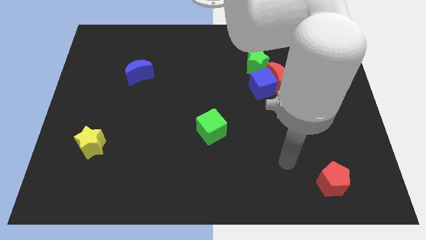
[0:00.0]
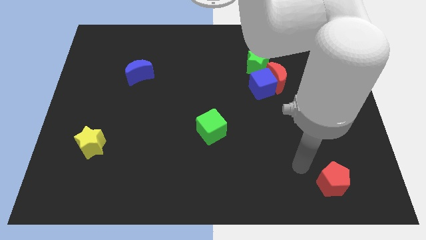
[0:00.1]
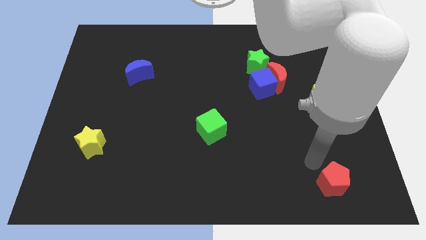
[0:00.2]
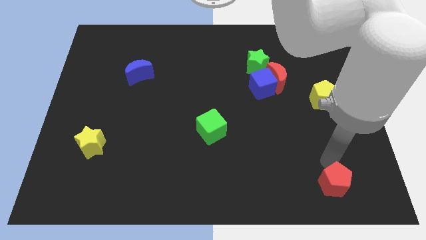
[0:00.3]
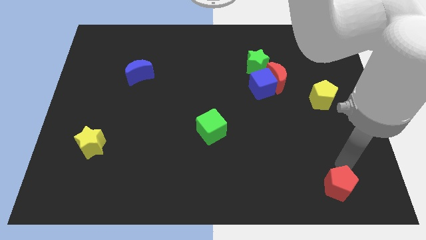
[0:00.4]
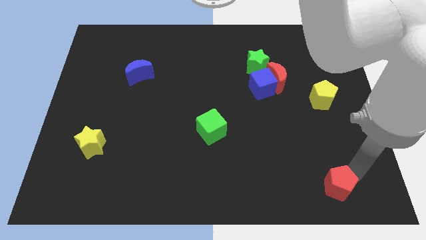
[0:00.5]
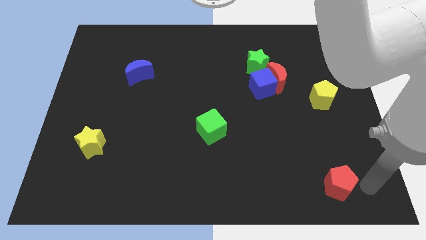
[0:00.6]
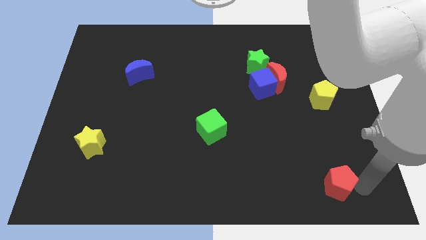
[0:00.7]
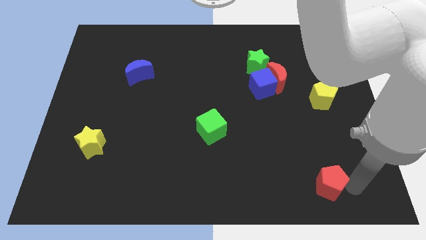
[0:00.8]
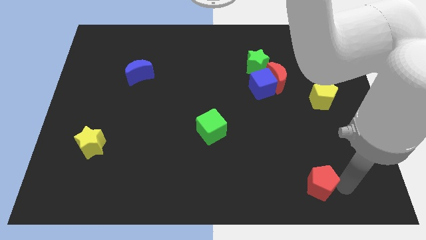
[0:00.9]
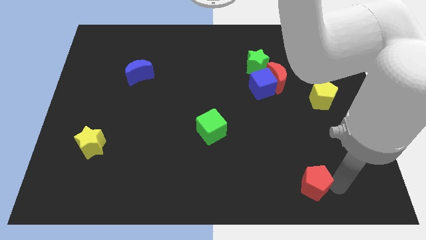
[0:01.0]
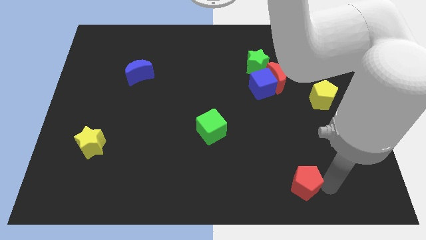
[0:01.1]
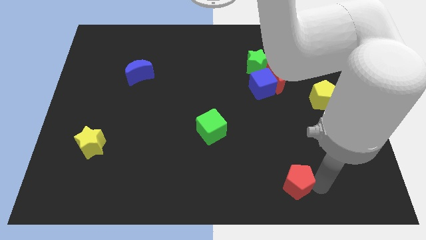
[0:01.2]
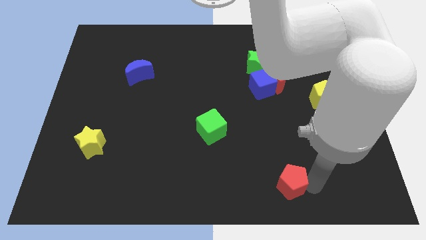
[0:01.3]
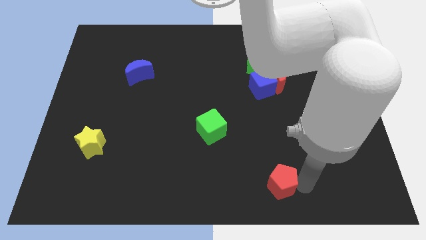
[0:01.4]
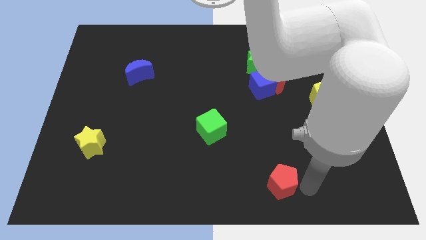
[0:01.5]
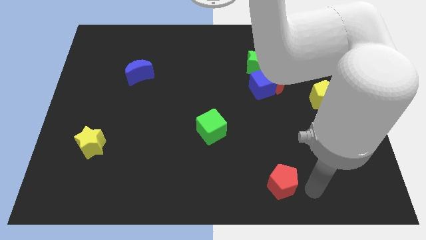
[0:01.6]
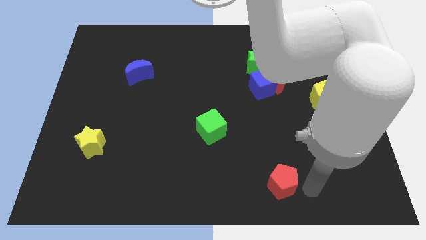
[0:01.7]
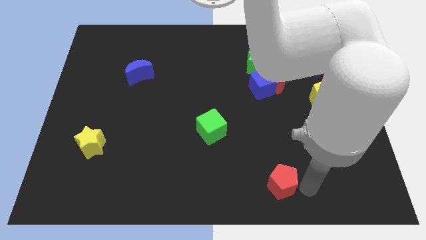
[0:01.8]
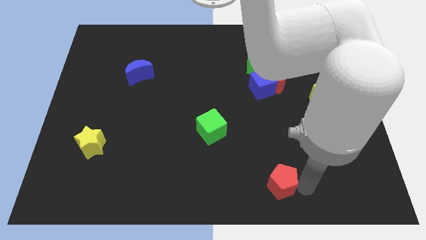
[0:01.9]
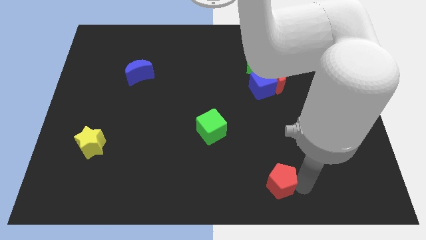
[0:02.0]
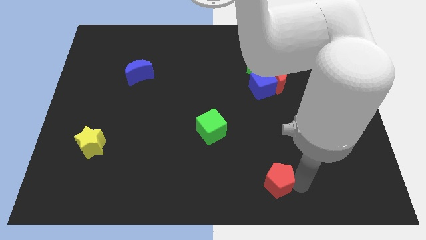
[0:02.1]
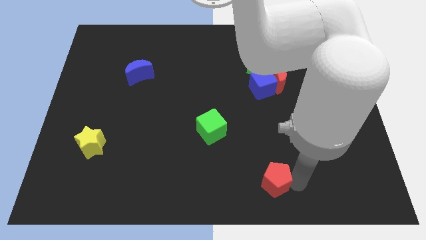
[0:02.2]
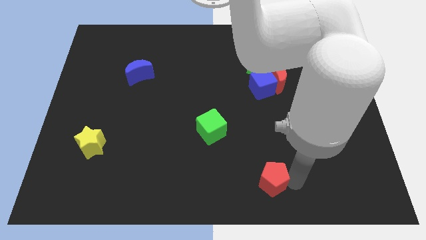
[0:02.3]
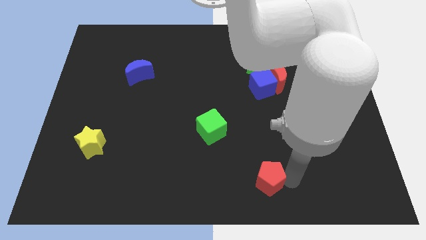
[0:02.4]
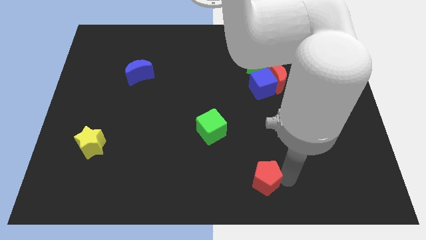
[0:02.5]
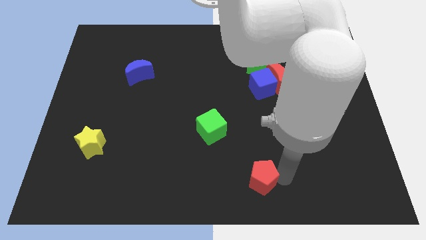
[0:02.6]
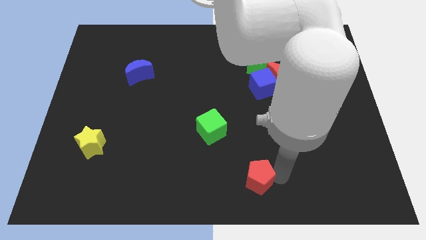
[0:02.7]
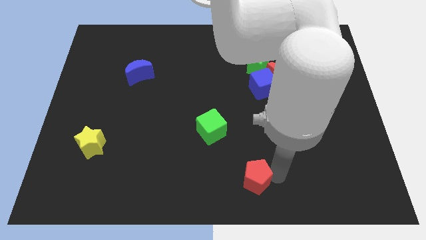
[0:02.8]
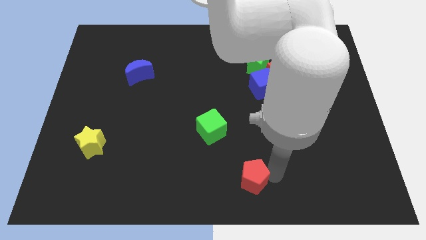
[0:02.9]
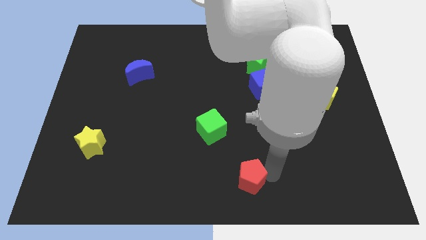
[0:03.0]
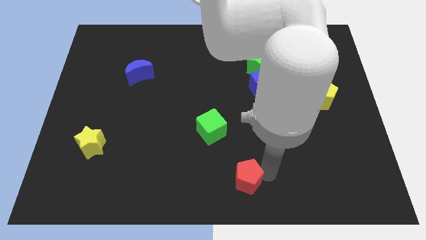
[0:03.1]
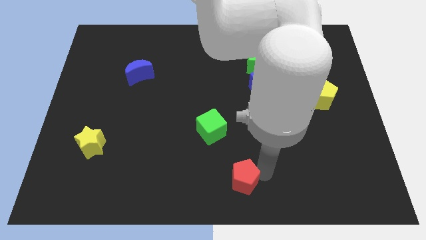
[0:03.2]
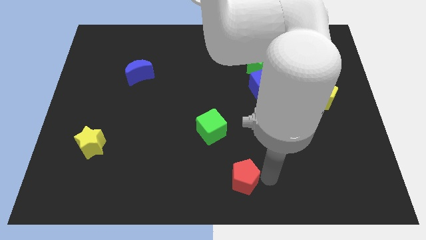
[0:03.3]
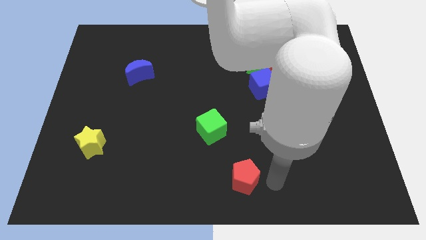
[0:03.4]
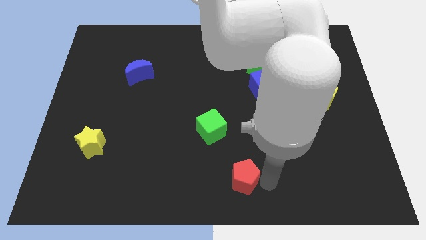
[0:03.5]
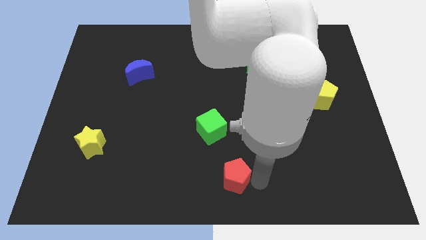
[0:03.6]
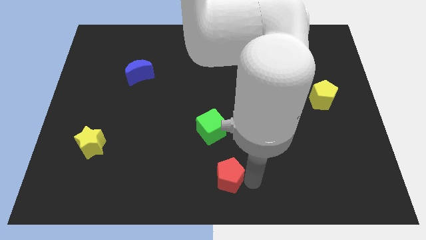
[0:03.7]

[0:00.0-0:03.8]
push the red pentagon to the left

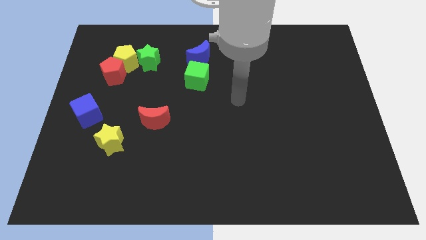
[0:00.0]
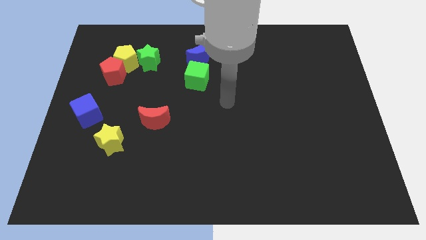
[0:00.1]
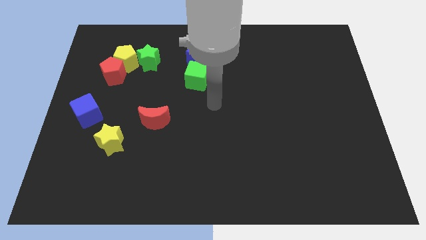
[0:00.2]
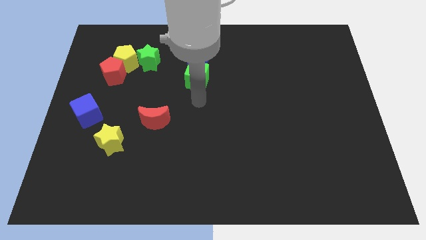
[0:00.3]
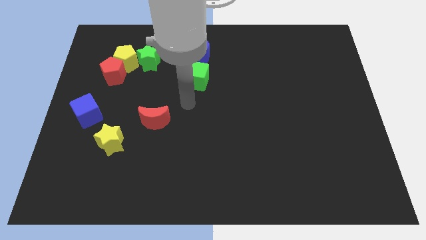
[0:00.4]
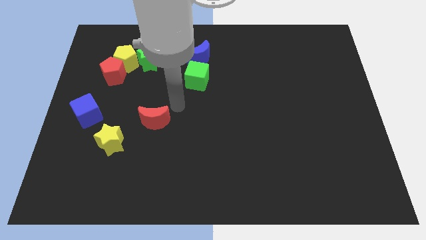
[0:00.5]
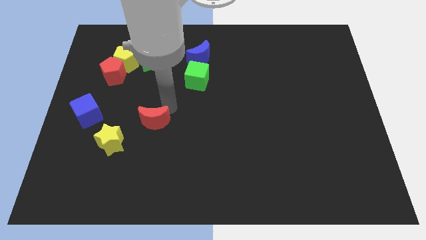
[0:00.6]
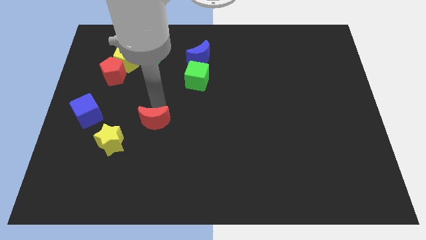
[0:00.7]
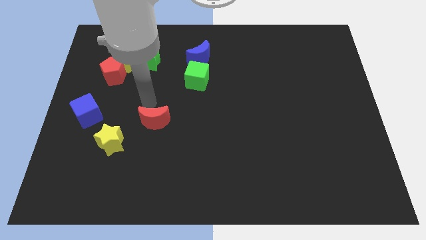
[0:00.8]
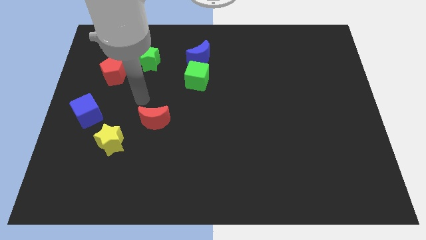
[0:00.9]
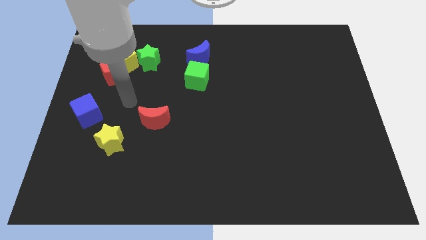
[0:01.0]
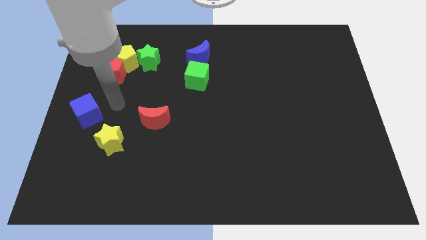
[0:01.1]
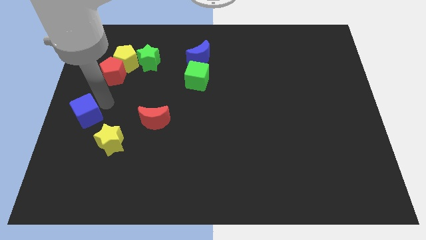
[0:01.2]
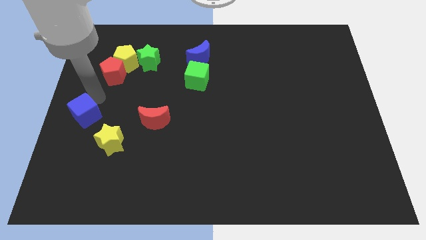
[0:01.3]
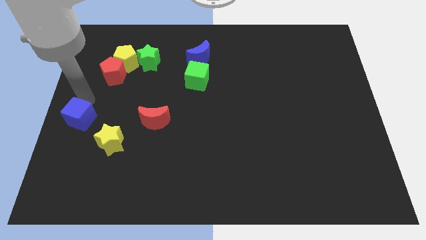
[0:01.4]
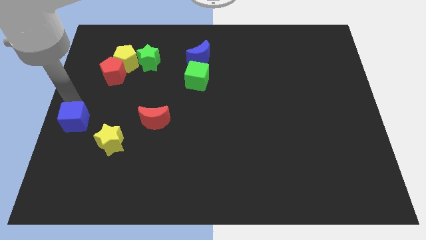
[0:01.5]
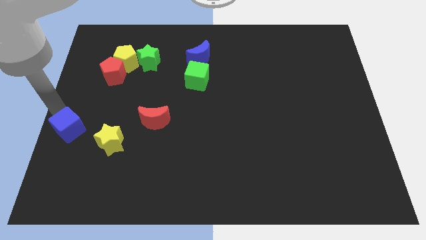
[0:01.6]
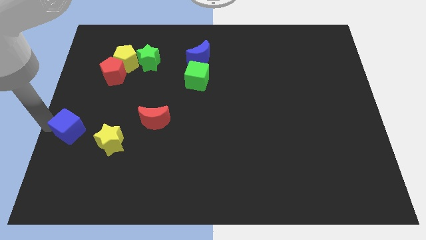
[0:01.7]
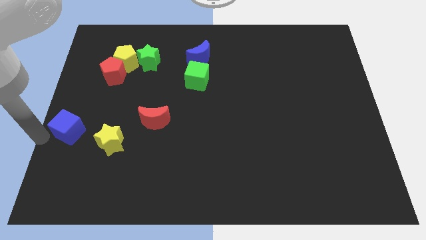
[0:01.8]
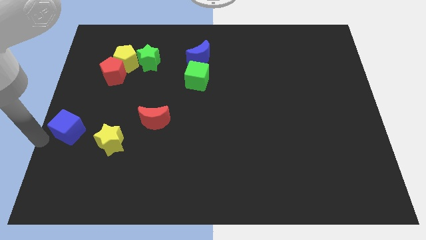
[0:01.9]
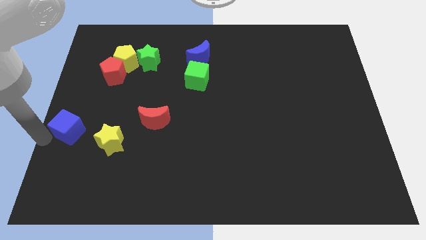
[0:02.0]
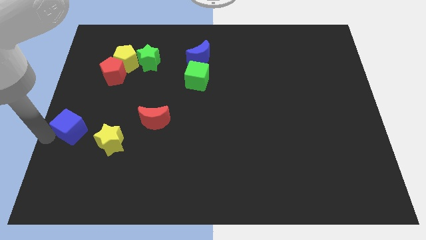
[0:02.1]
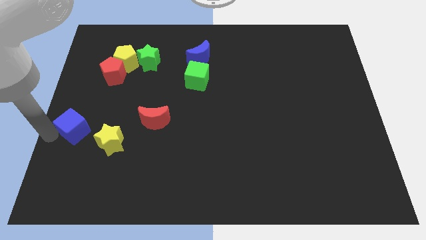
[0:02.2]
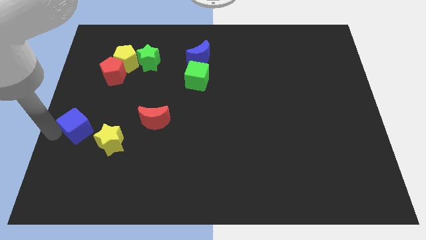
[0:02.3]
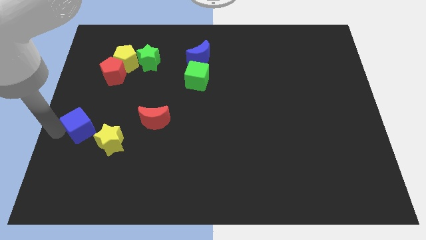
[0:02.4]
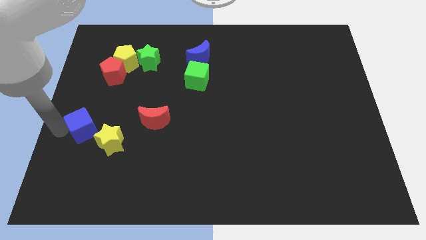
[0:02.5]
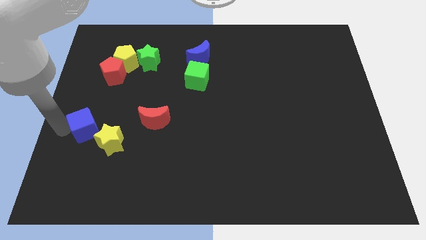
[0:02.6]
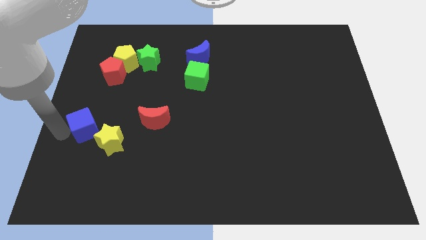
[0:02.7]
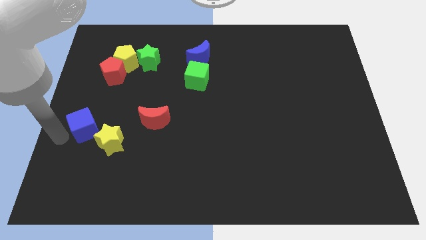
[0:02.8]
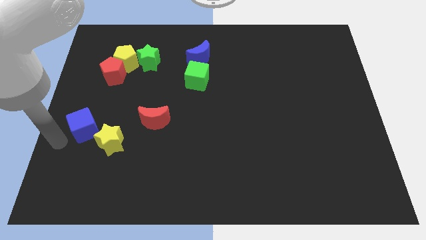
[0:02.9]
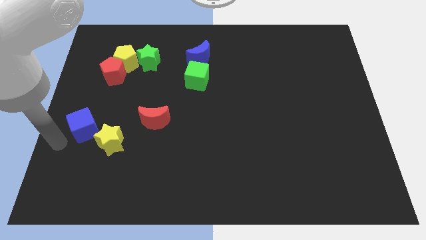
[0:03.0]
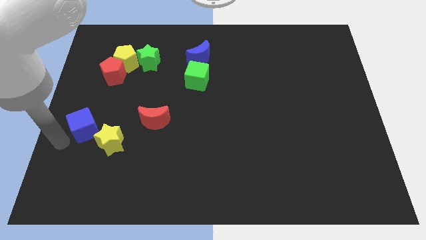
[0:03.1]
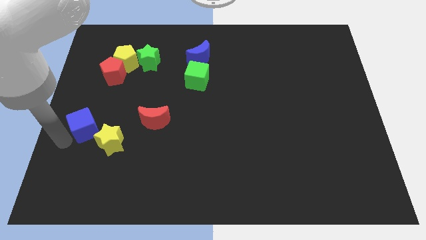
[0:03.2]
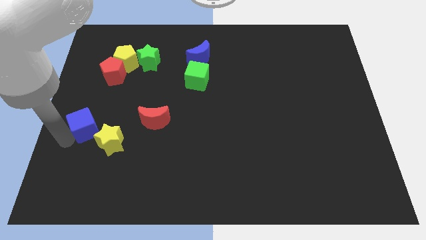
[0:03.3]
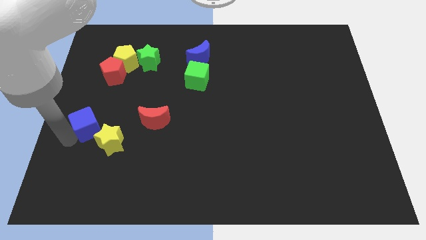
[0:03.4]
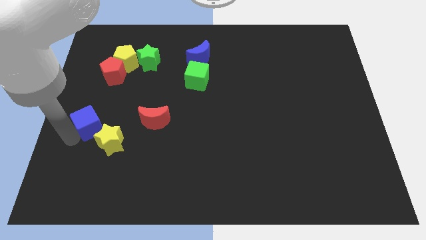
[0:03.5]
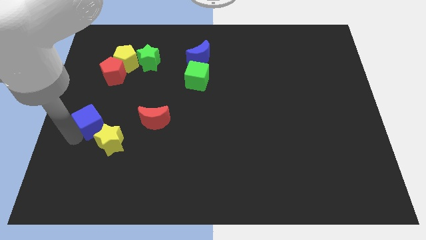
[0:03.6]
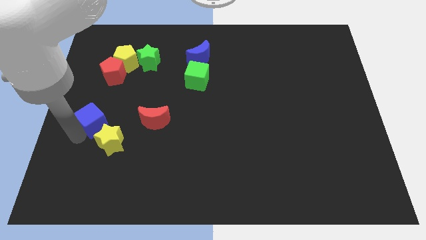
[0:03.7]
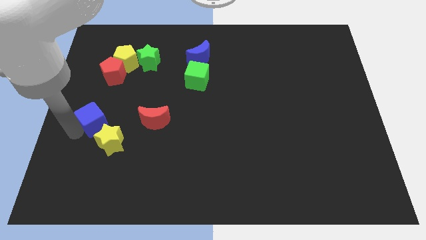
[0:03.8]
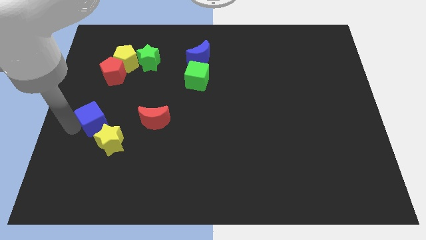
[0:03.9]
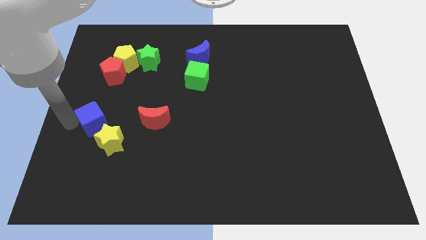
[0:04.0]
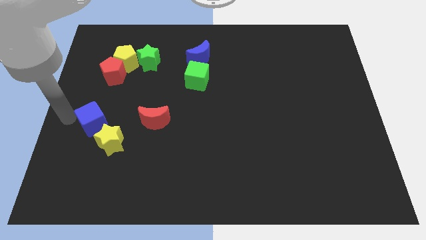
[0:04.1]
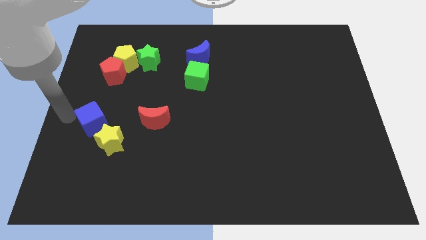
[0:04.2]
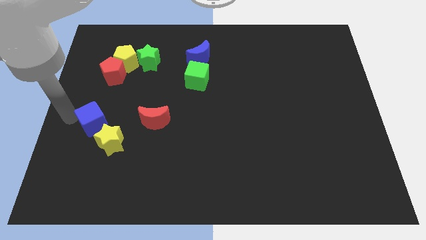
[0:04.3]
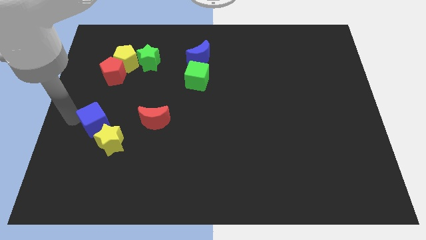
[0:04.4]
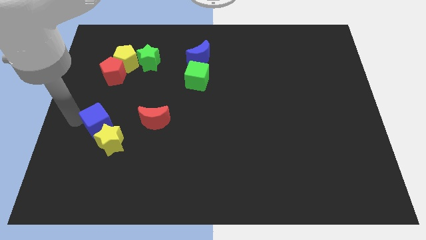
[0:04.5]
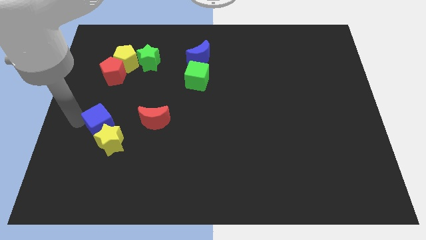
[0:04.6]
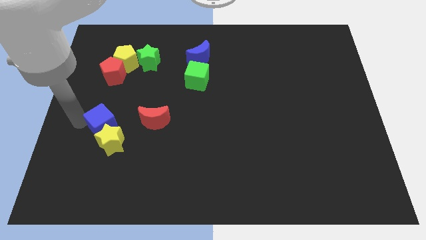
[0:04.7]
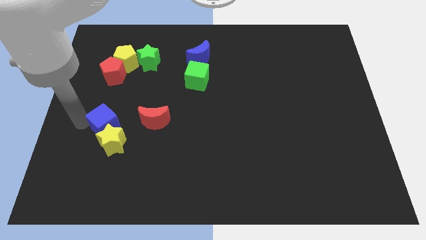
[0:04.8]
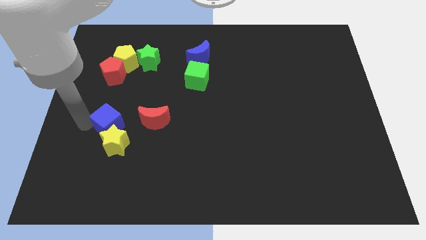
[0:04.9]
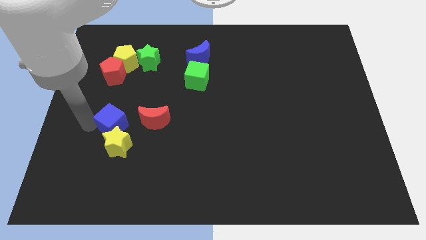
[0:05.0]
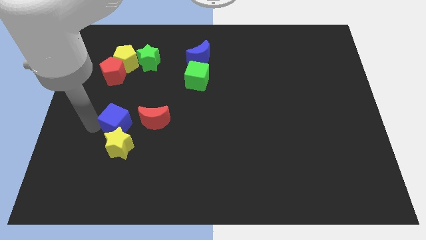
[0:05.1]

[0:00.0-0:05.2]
push the blue cube a bit downwards and to the right diagonally
